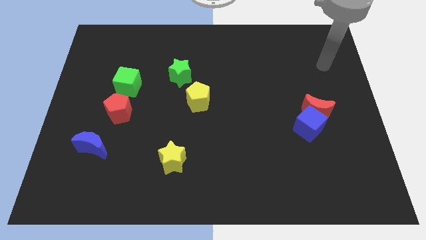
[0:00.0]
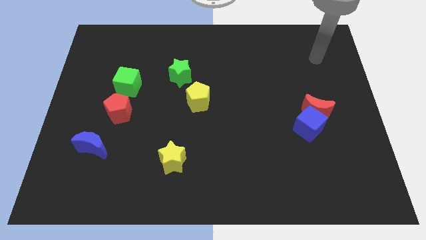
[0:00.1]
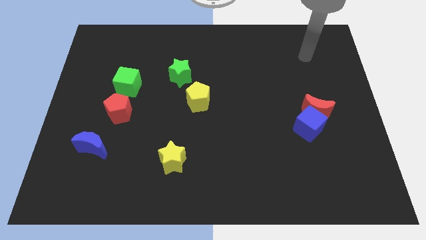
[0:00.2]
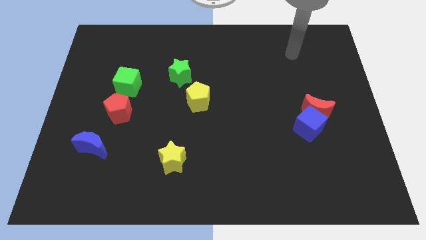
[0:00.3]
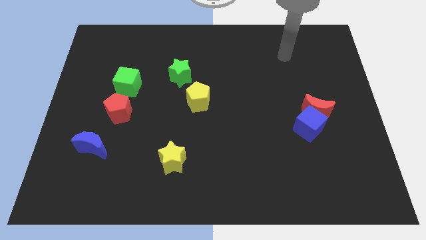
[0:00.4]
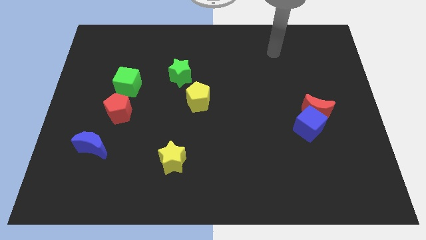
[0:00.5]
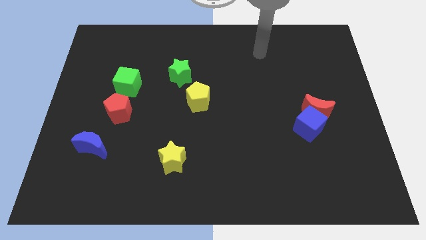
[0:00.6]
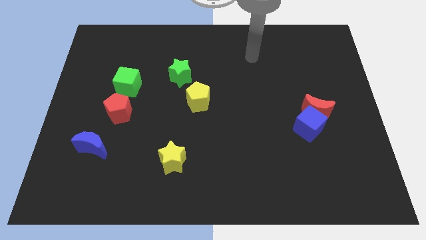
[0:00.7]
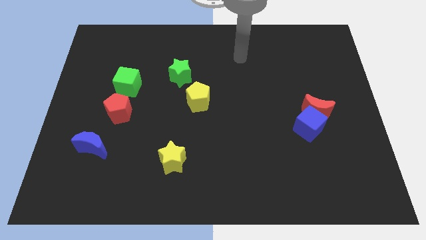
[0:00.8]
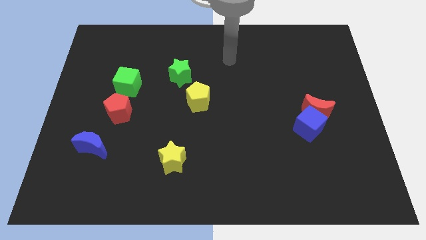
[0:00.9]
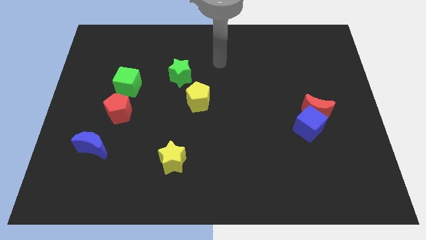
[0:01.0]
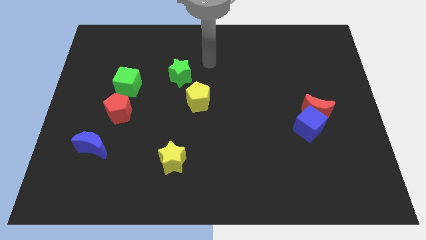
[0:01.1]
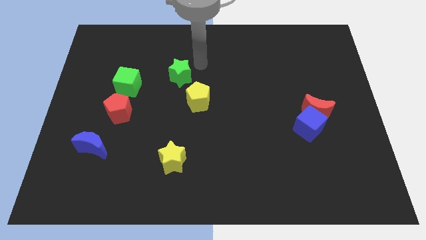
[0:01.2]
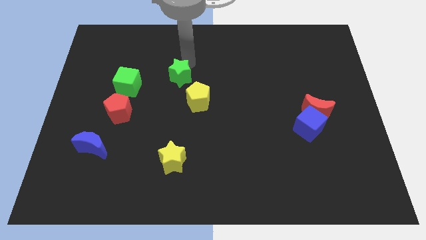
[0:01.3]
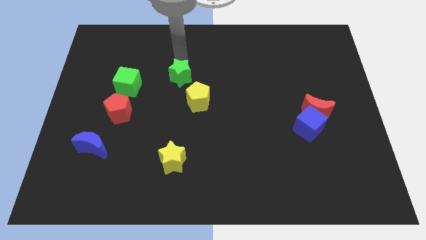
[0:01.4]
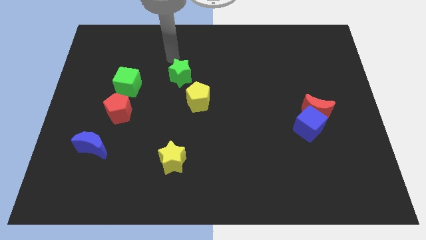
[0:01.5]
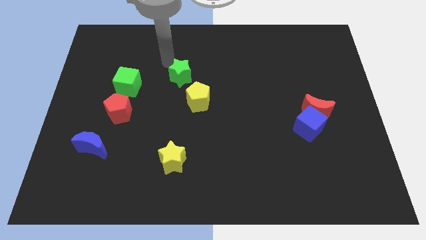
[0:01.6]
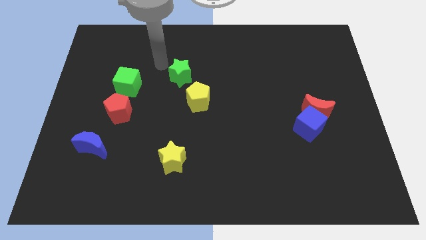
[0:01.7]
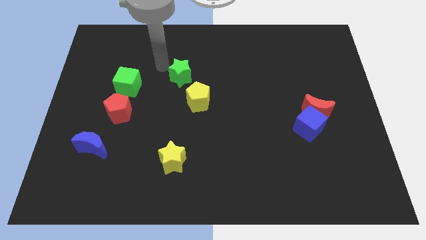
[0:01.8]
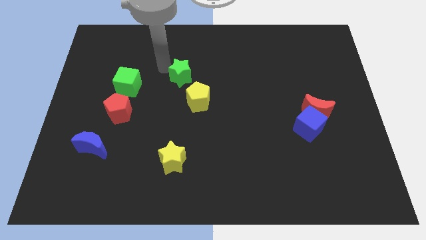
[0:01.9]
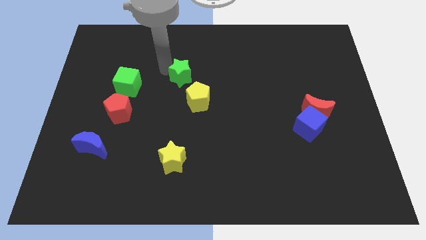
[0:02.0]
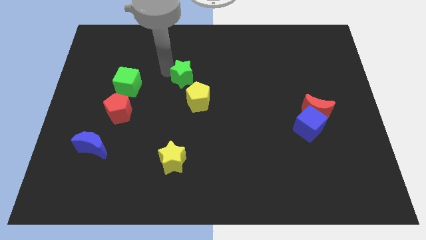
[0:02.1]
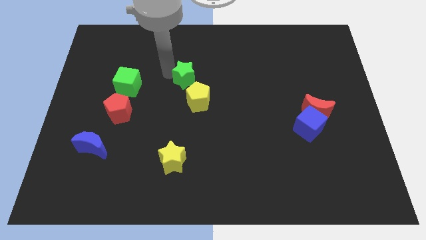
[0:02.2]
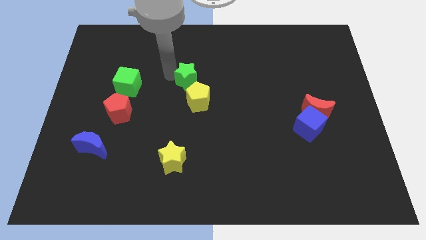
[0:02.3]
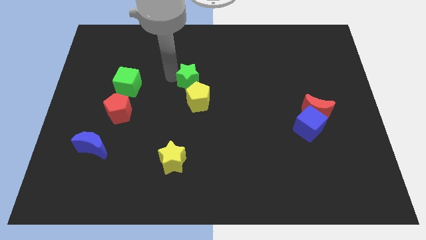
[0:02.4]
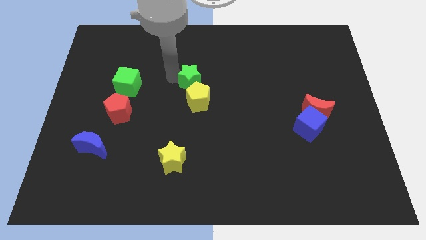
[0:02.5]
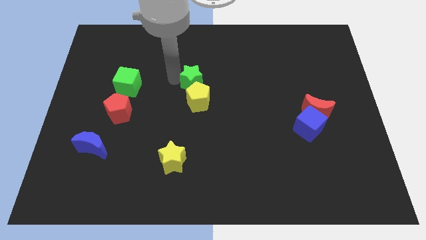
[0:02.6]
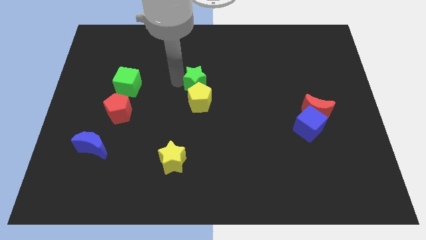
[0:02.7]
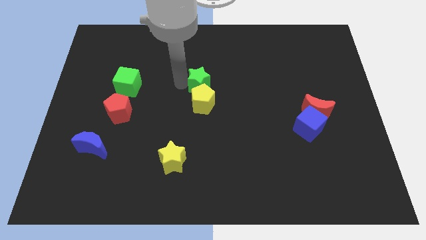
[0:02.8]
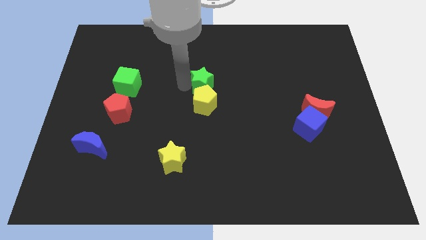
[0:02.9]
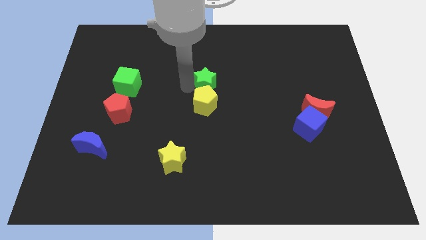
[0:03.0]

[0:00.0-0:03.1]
slightly slide the green star downwards and to the right

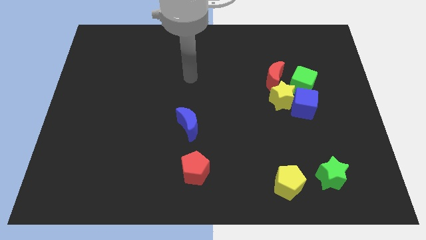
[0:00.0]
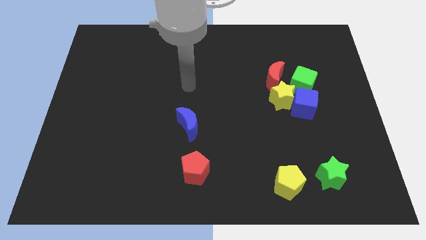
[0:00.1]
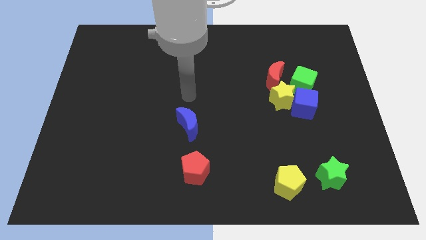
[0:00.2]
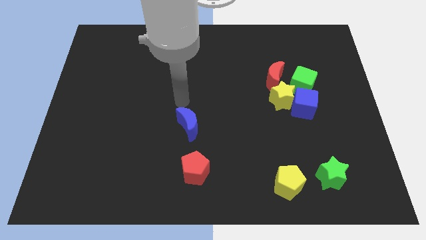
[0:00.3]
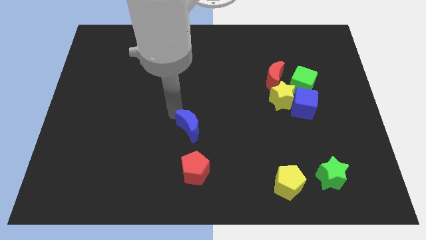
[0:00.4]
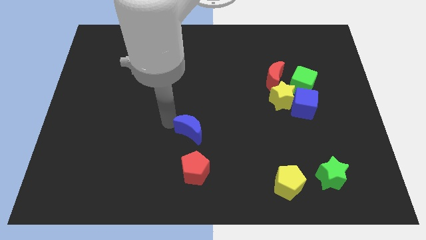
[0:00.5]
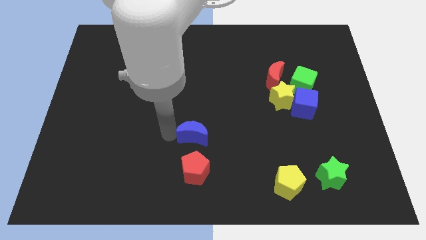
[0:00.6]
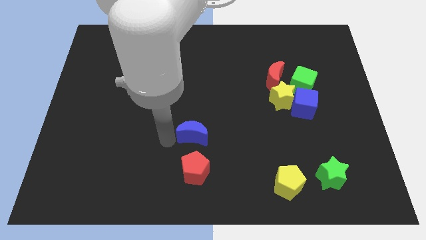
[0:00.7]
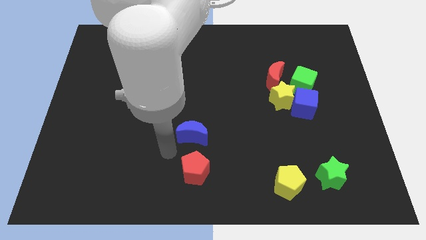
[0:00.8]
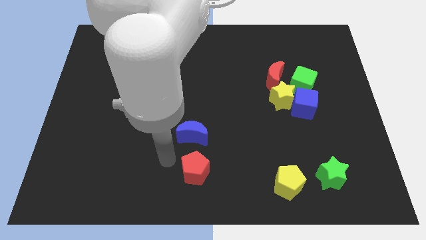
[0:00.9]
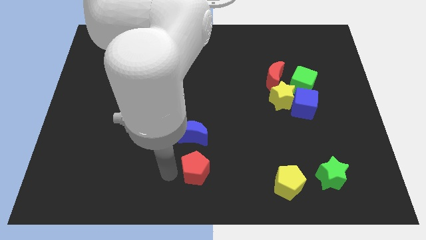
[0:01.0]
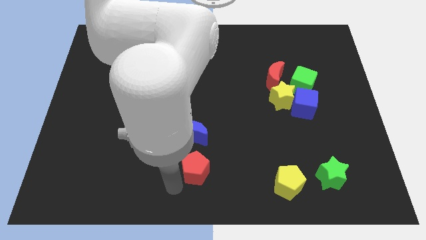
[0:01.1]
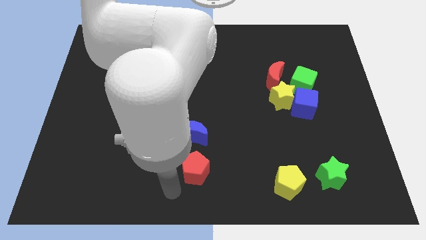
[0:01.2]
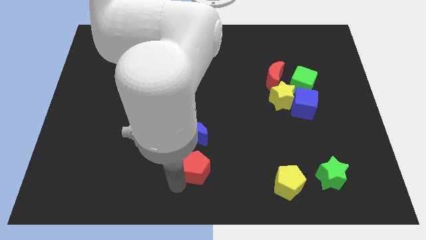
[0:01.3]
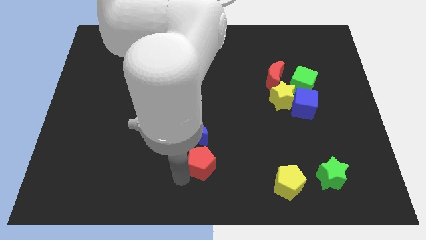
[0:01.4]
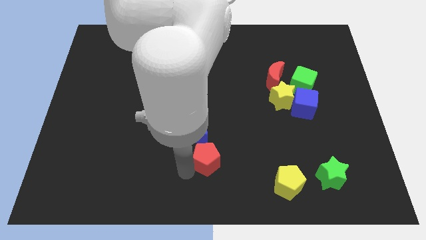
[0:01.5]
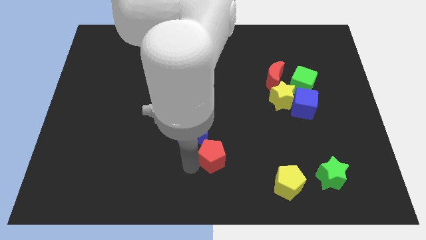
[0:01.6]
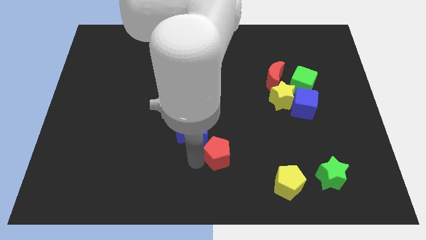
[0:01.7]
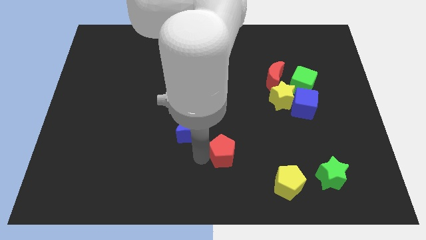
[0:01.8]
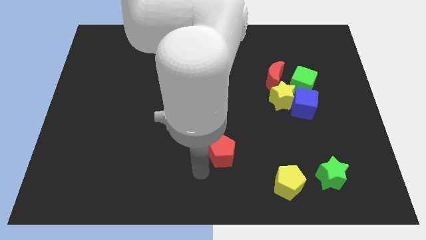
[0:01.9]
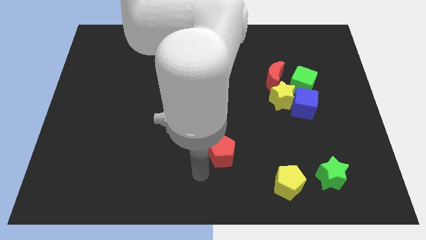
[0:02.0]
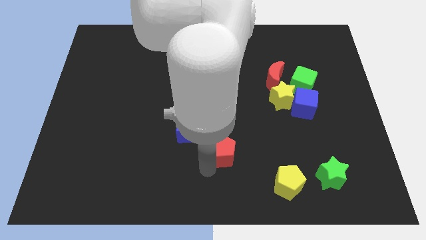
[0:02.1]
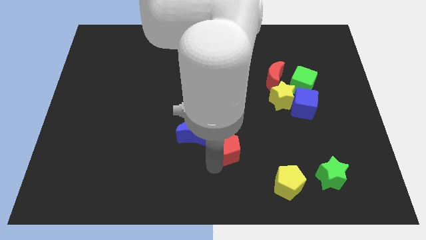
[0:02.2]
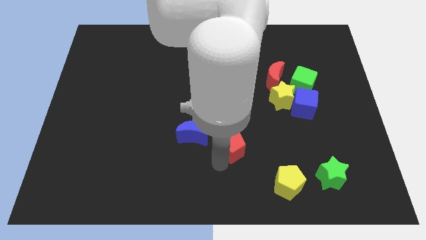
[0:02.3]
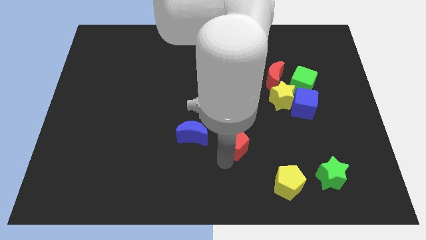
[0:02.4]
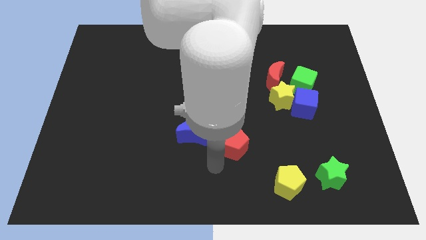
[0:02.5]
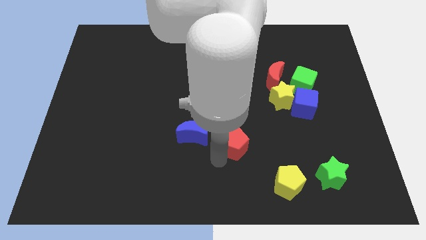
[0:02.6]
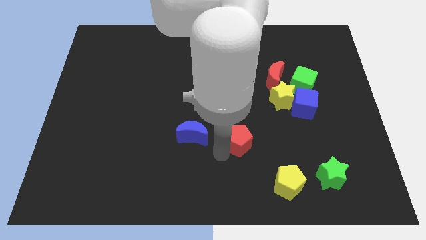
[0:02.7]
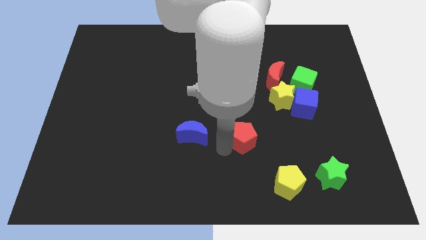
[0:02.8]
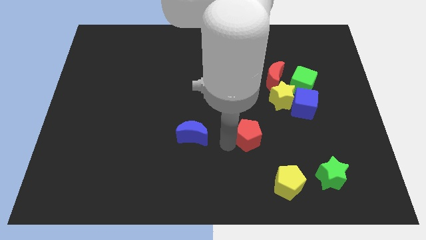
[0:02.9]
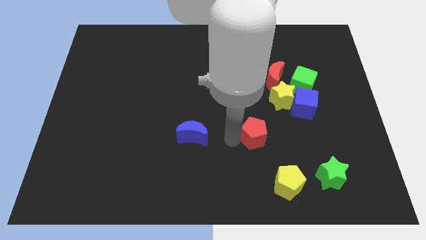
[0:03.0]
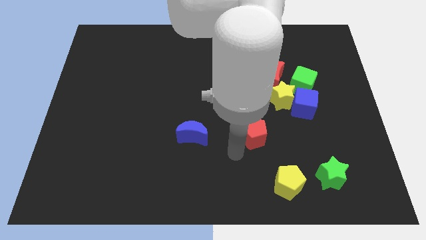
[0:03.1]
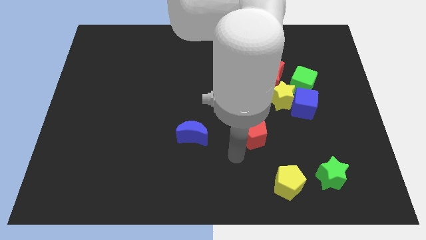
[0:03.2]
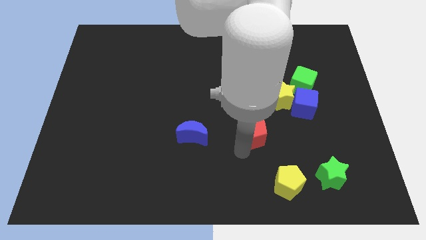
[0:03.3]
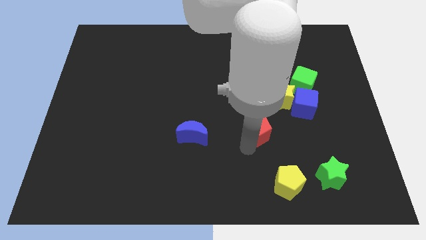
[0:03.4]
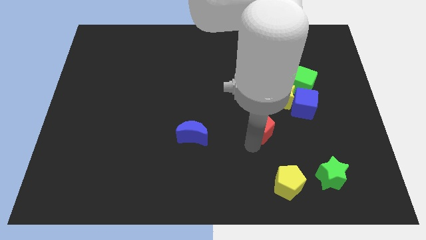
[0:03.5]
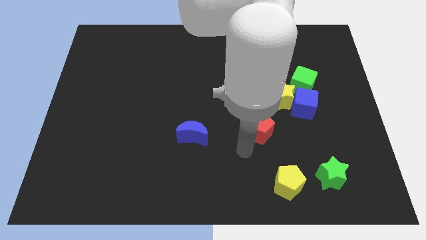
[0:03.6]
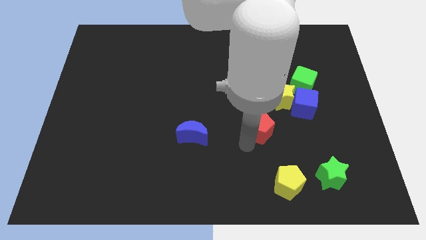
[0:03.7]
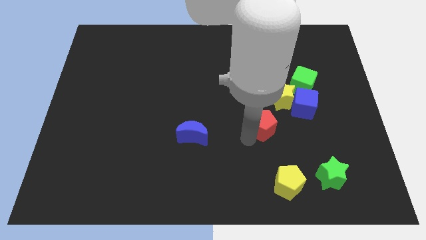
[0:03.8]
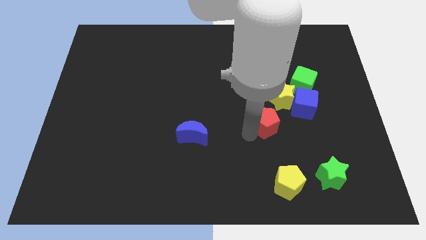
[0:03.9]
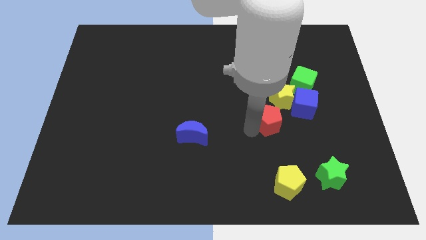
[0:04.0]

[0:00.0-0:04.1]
move the red pentagon upwards and right

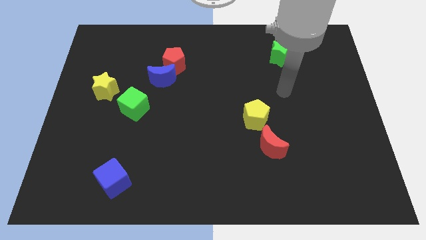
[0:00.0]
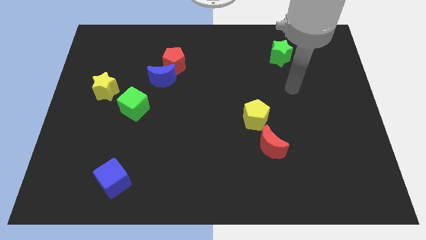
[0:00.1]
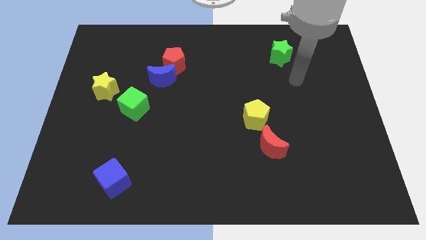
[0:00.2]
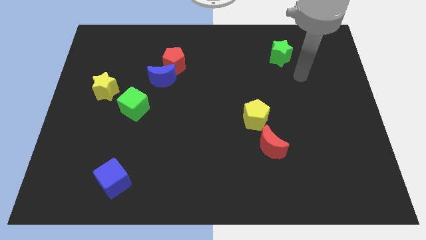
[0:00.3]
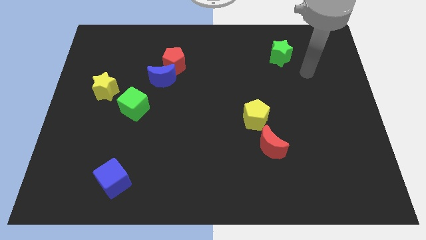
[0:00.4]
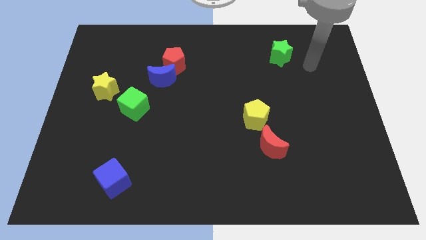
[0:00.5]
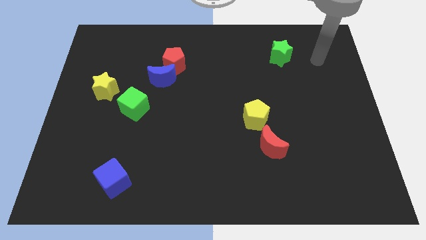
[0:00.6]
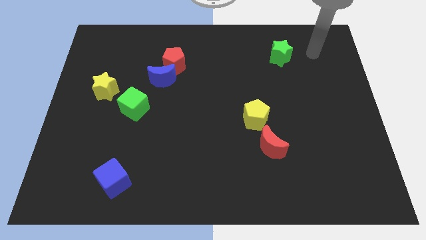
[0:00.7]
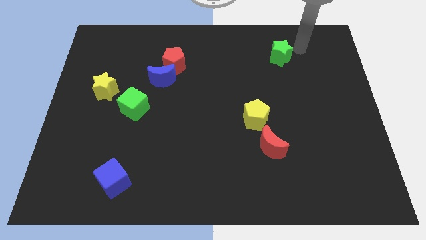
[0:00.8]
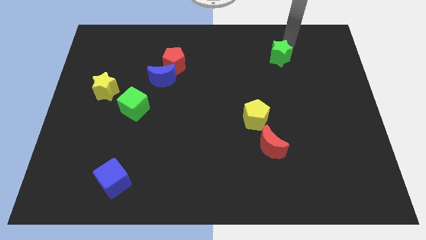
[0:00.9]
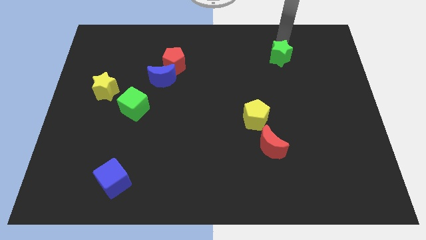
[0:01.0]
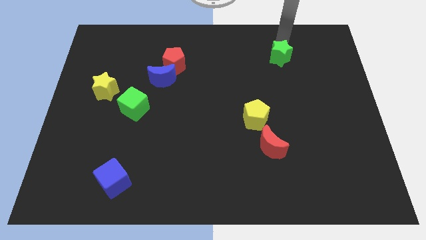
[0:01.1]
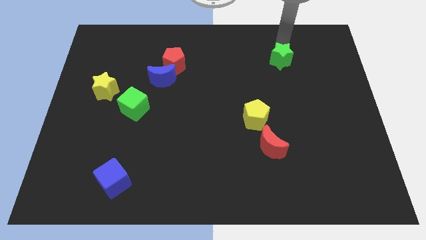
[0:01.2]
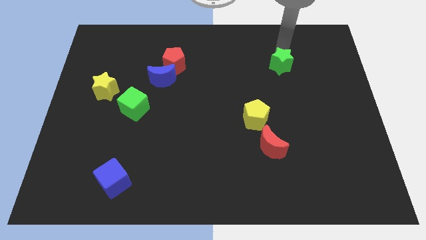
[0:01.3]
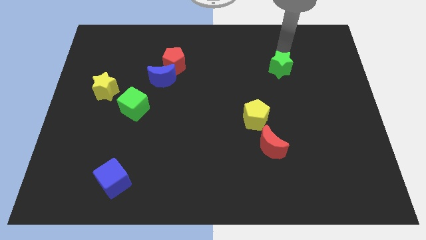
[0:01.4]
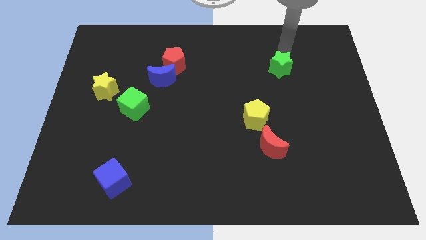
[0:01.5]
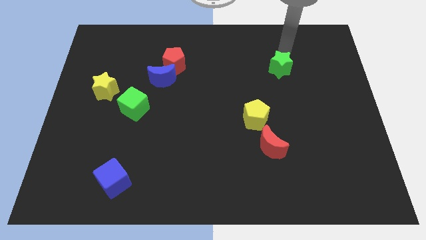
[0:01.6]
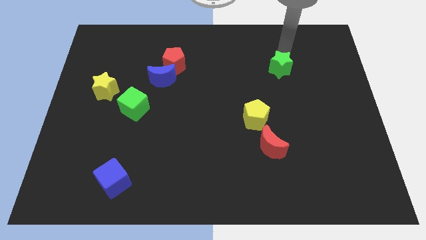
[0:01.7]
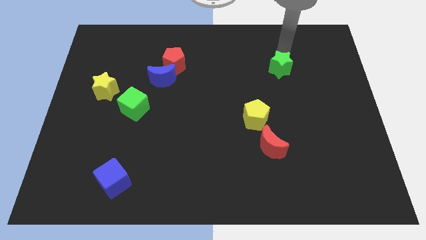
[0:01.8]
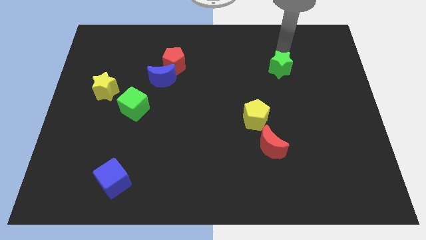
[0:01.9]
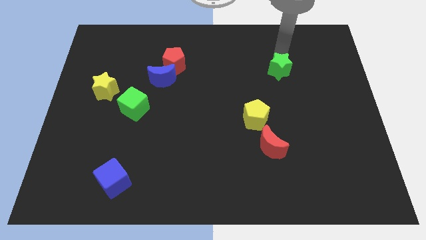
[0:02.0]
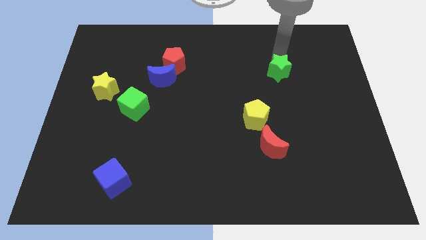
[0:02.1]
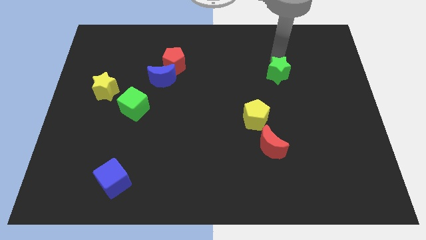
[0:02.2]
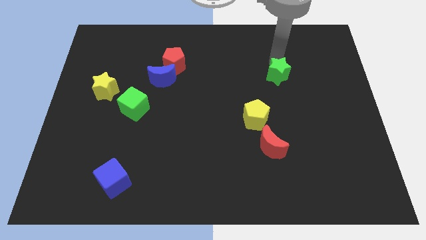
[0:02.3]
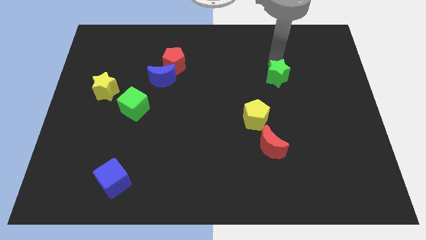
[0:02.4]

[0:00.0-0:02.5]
push the green star downwards a bit
